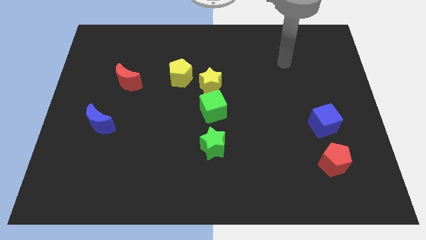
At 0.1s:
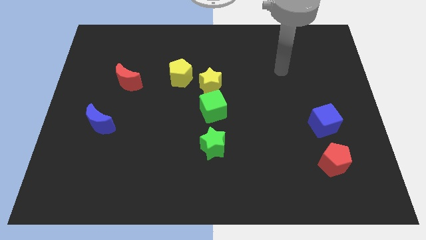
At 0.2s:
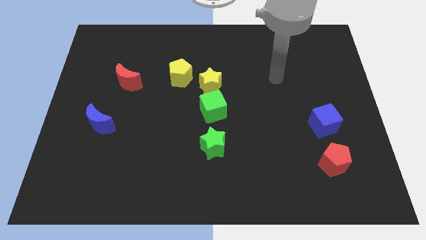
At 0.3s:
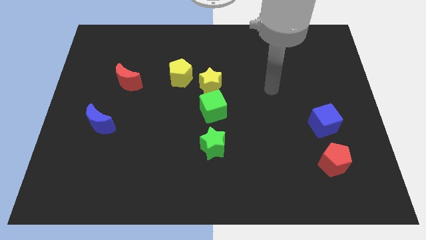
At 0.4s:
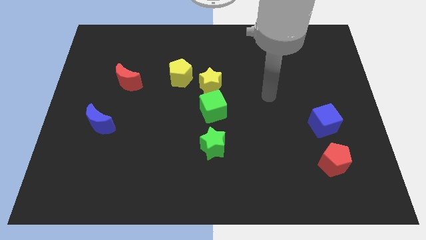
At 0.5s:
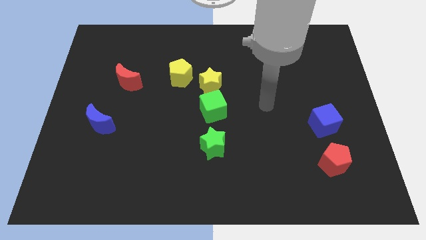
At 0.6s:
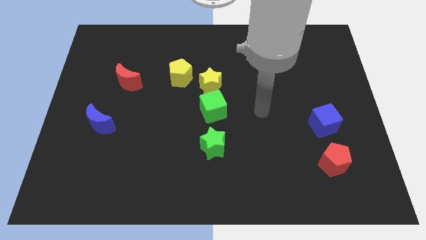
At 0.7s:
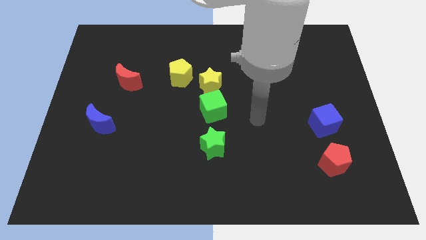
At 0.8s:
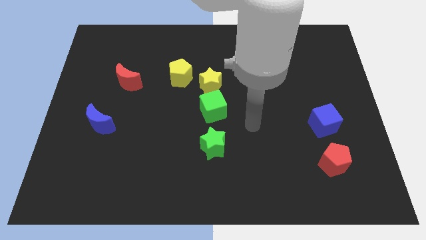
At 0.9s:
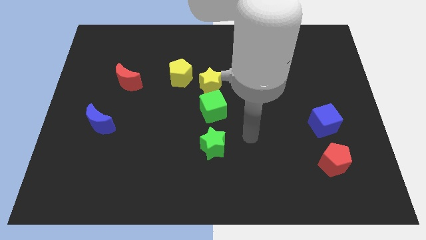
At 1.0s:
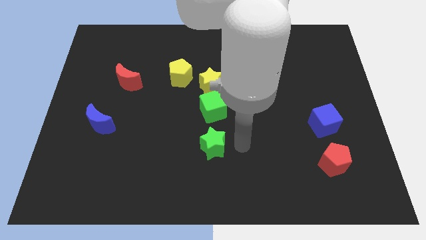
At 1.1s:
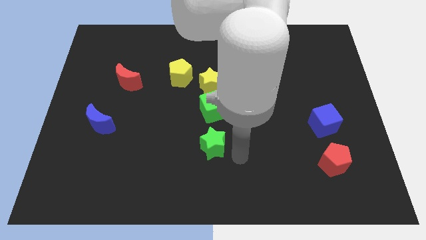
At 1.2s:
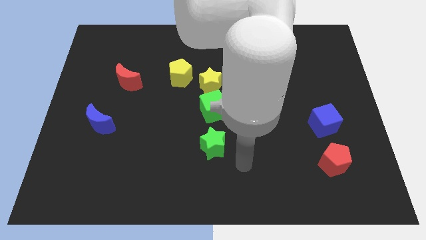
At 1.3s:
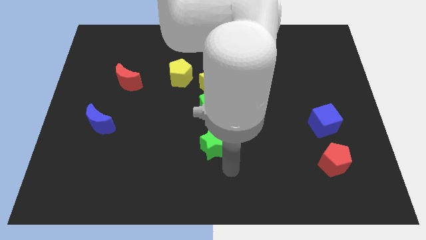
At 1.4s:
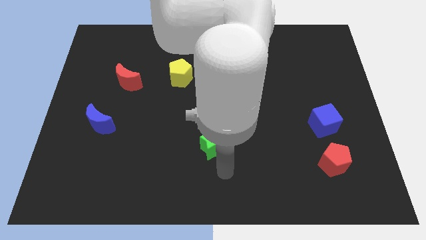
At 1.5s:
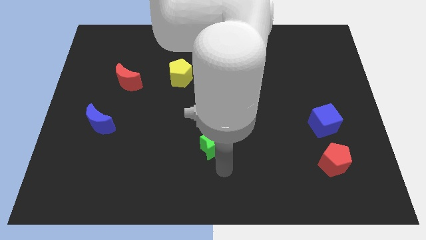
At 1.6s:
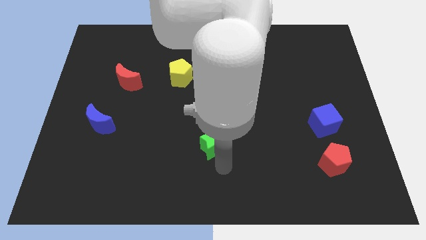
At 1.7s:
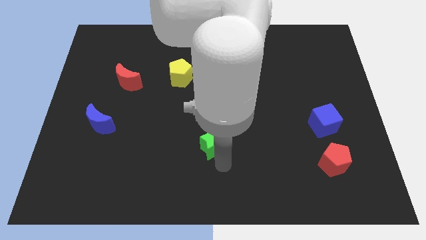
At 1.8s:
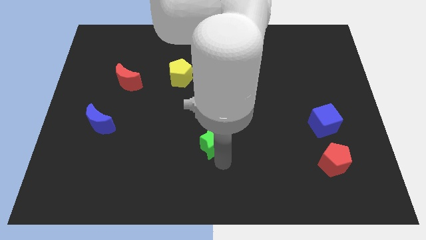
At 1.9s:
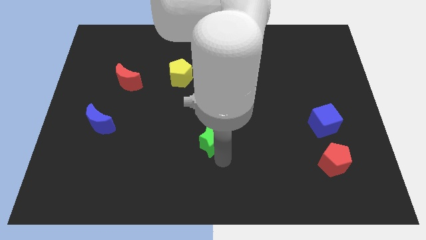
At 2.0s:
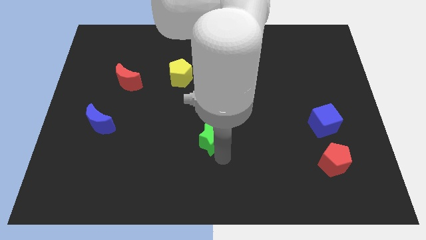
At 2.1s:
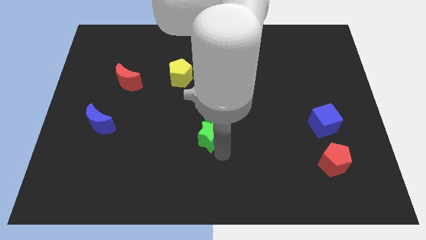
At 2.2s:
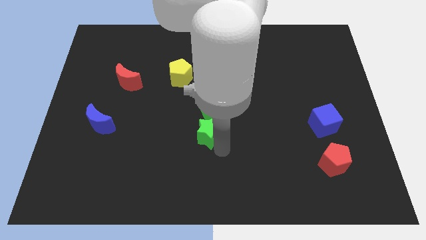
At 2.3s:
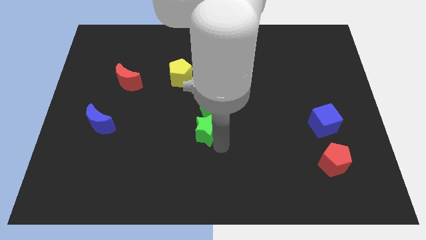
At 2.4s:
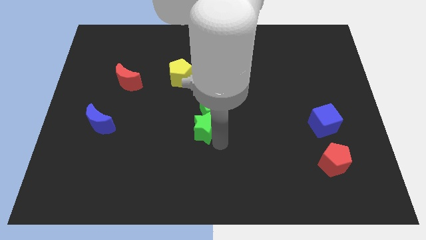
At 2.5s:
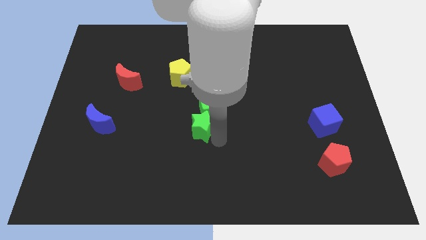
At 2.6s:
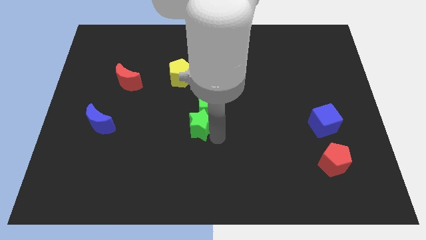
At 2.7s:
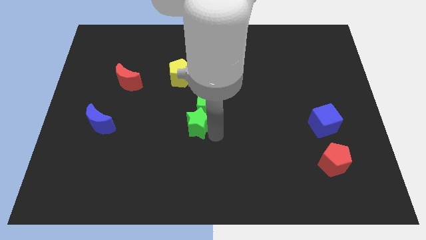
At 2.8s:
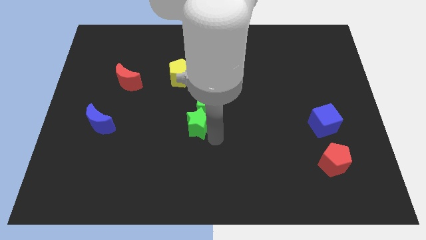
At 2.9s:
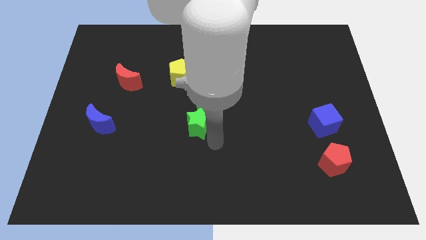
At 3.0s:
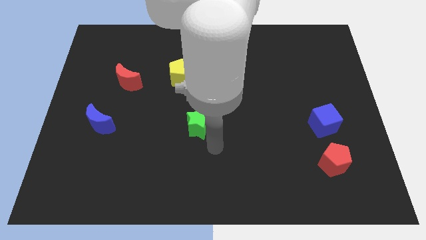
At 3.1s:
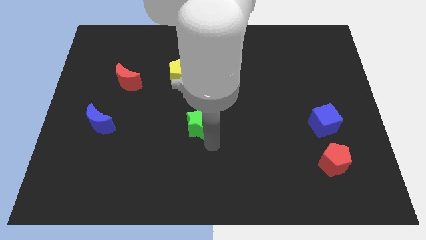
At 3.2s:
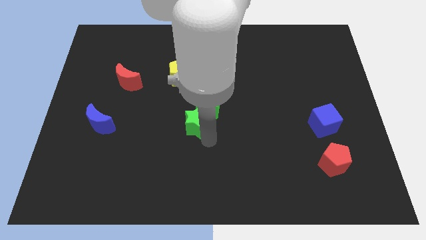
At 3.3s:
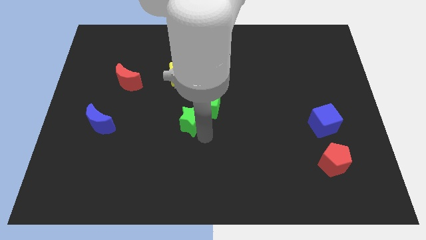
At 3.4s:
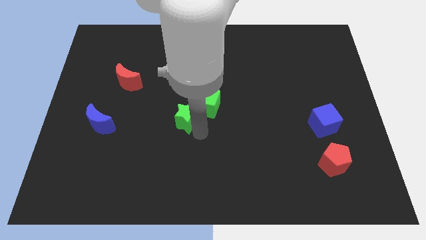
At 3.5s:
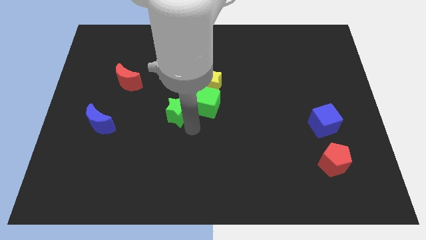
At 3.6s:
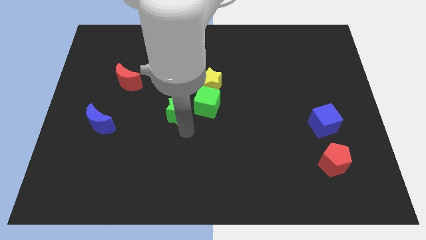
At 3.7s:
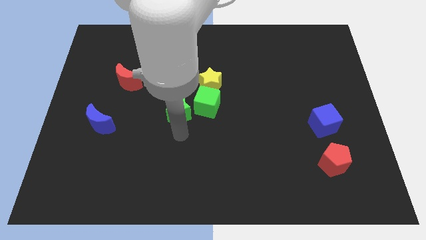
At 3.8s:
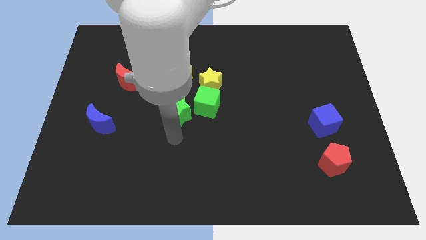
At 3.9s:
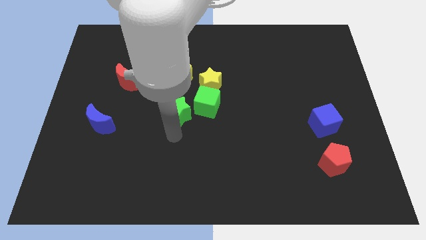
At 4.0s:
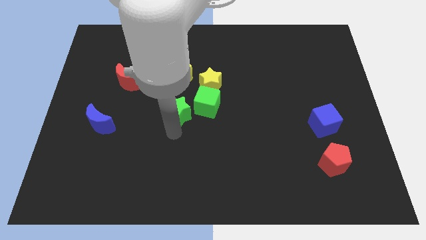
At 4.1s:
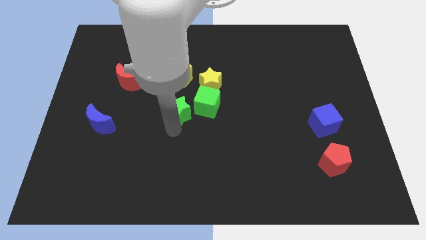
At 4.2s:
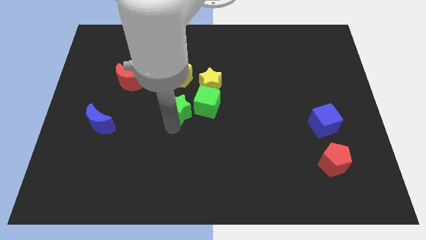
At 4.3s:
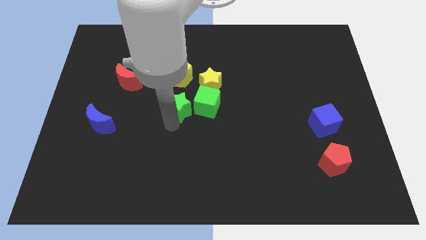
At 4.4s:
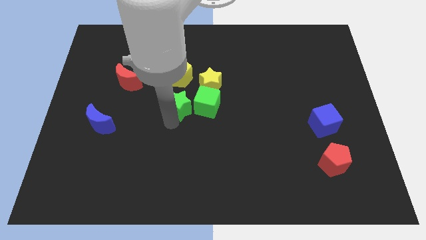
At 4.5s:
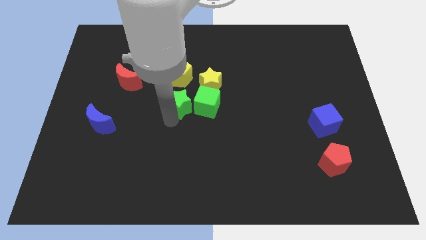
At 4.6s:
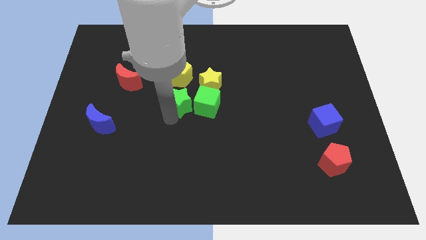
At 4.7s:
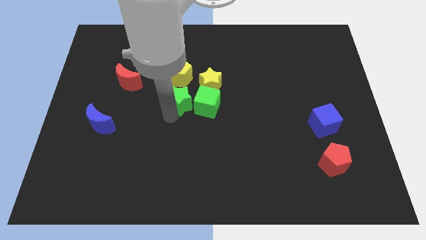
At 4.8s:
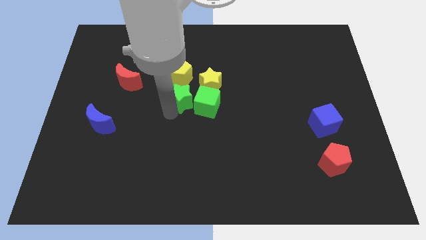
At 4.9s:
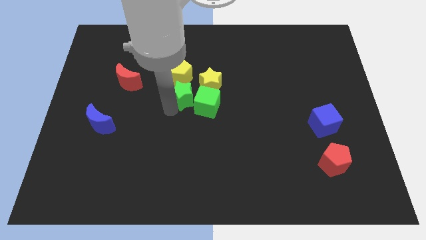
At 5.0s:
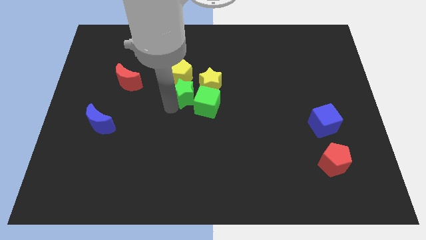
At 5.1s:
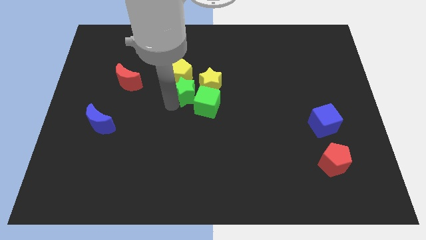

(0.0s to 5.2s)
push the green star to the yellow pentagon

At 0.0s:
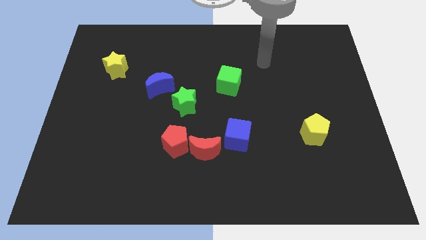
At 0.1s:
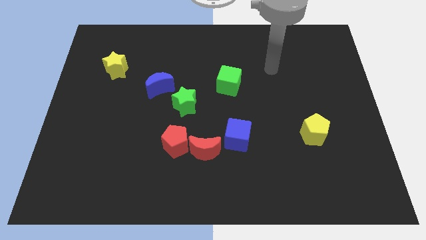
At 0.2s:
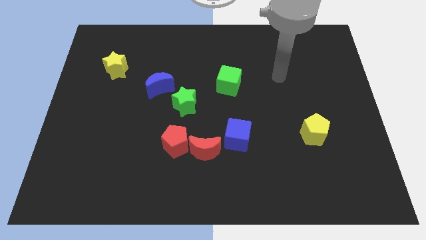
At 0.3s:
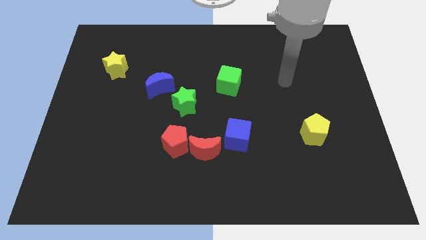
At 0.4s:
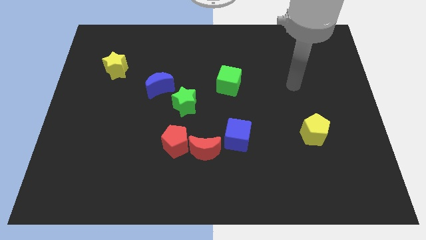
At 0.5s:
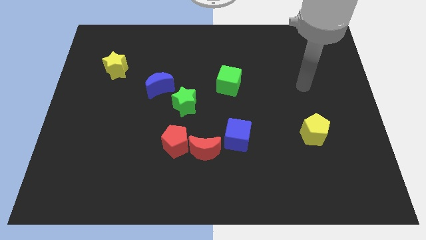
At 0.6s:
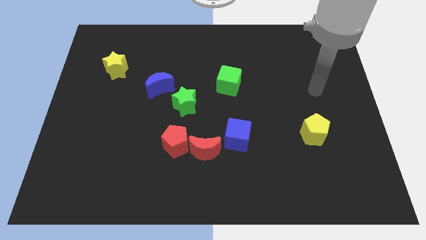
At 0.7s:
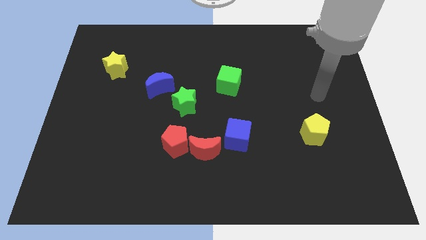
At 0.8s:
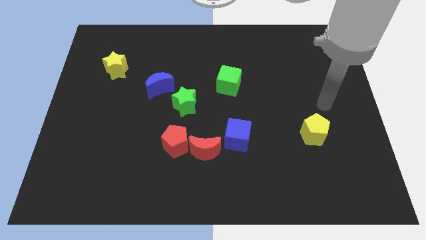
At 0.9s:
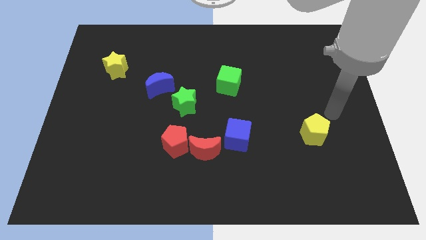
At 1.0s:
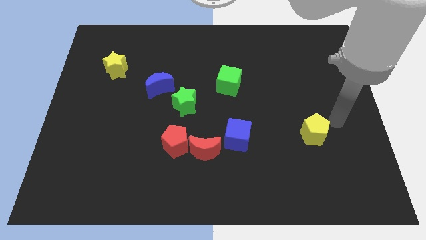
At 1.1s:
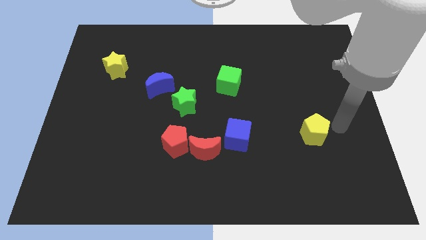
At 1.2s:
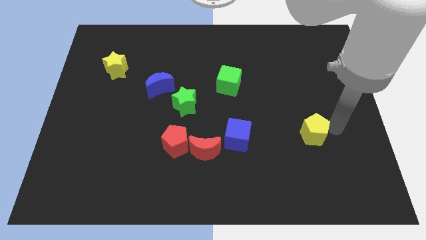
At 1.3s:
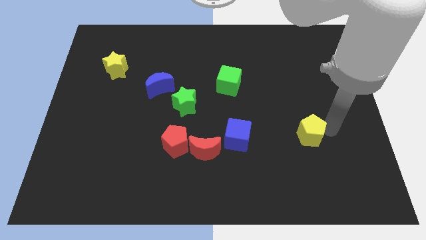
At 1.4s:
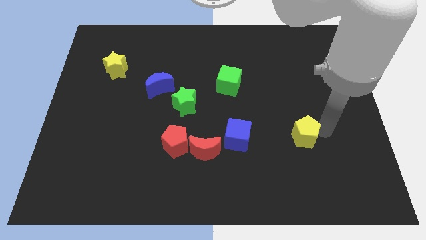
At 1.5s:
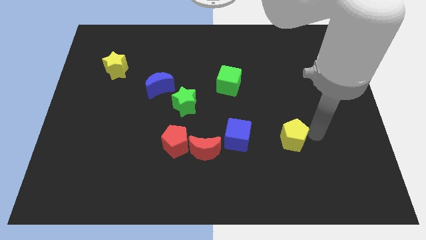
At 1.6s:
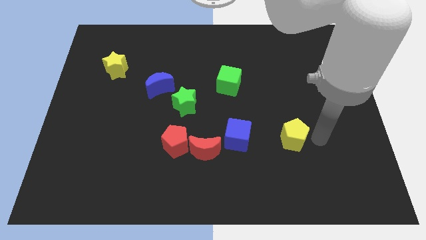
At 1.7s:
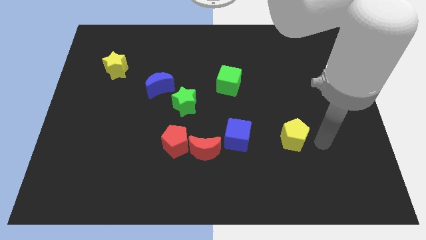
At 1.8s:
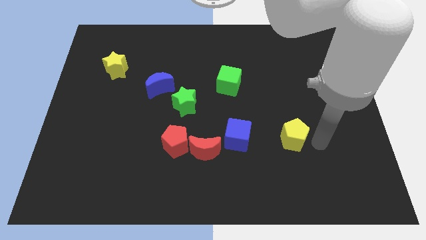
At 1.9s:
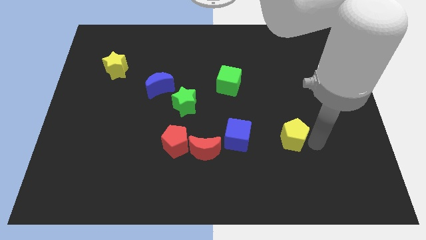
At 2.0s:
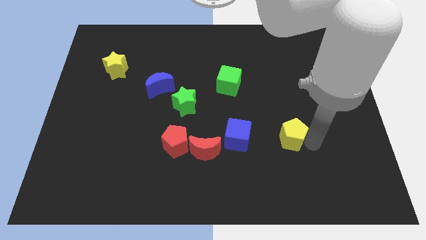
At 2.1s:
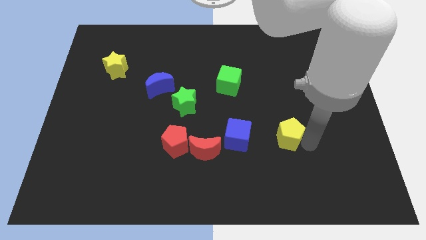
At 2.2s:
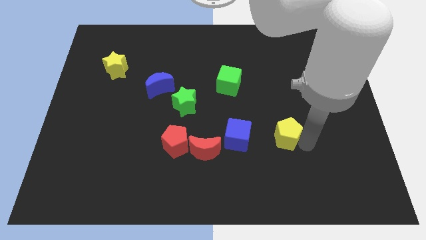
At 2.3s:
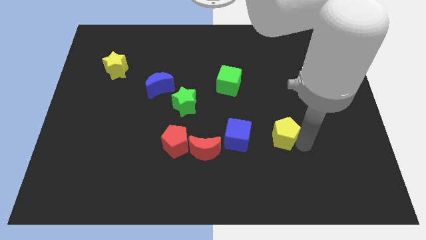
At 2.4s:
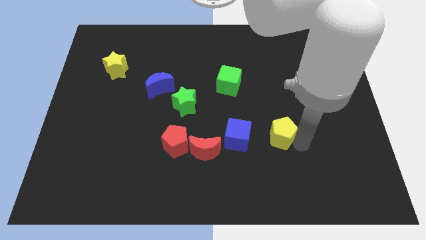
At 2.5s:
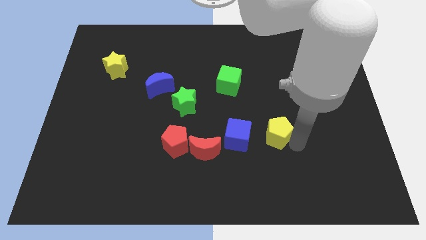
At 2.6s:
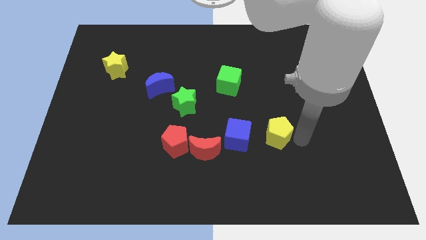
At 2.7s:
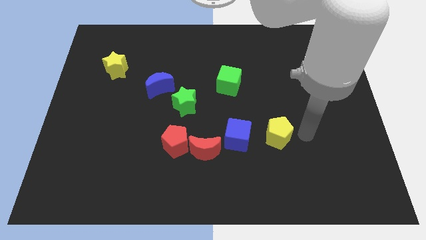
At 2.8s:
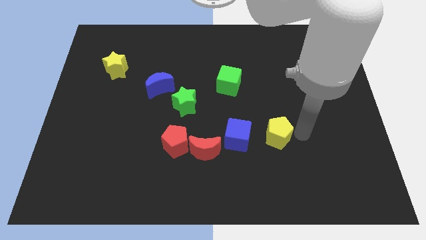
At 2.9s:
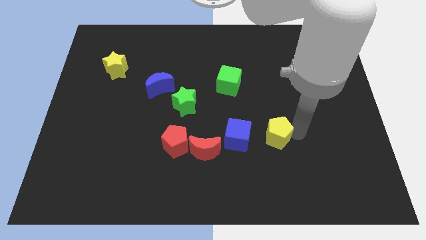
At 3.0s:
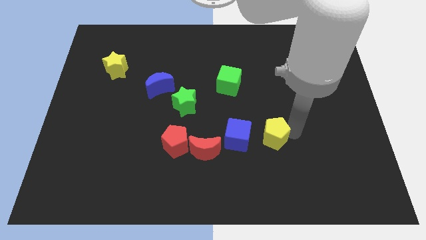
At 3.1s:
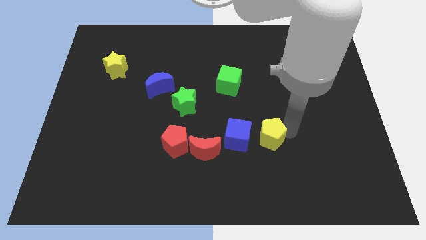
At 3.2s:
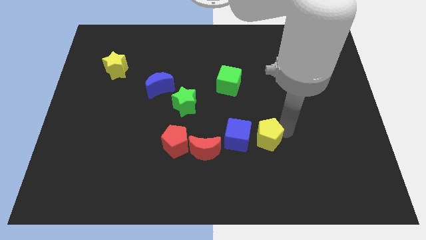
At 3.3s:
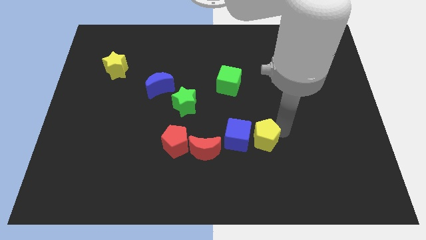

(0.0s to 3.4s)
slide the yellow pentagon next to the blue cube
